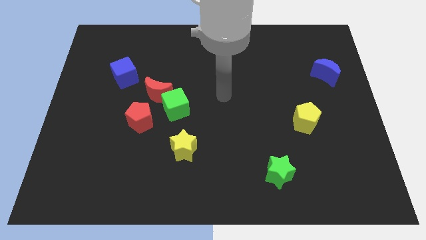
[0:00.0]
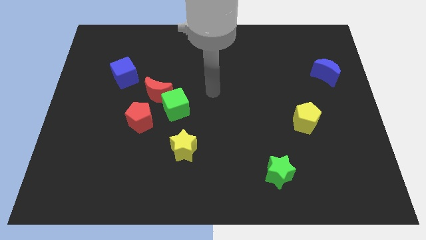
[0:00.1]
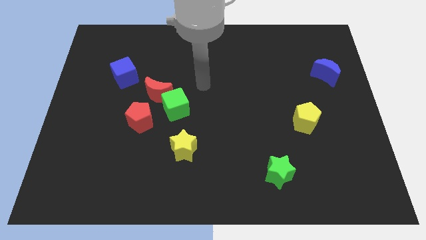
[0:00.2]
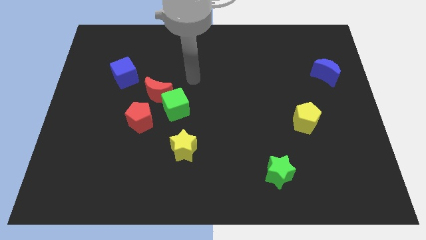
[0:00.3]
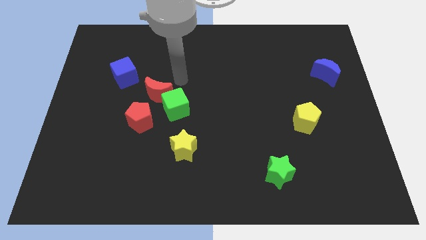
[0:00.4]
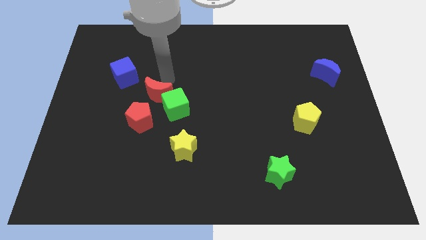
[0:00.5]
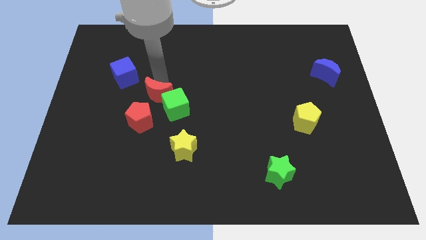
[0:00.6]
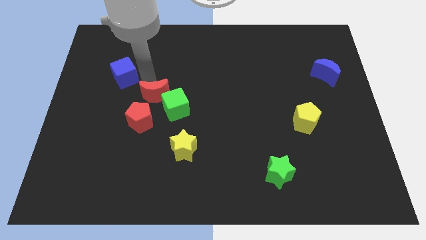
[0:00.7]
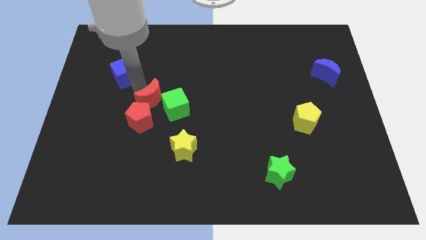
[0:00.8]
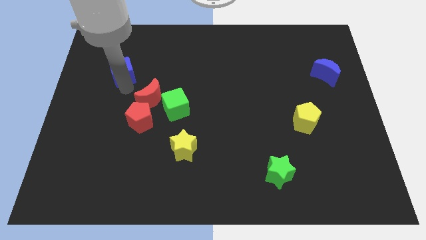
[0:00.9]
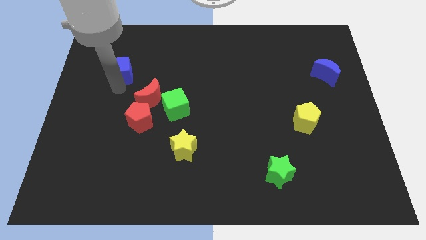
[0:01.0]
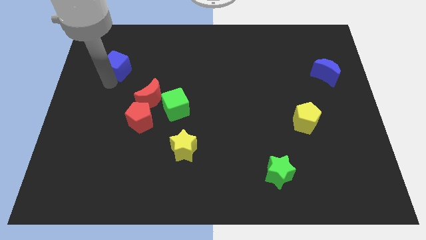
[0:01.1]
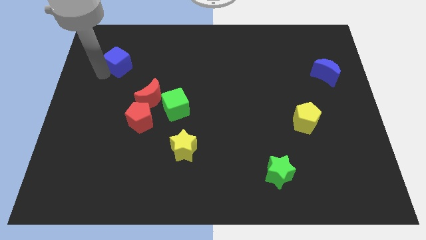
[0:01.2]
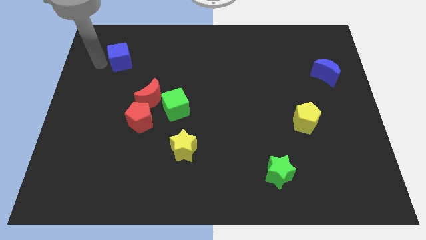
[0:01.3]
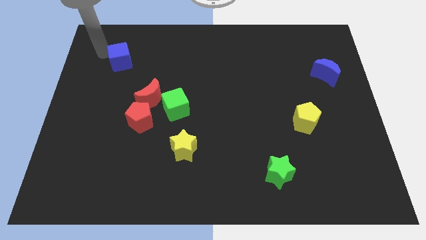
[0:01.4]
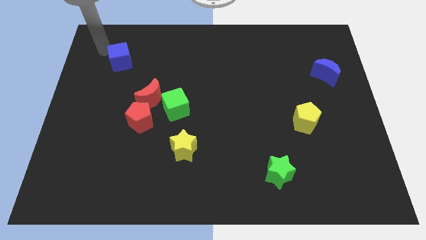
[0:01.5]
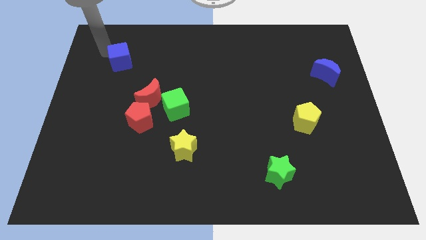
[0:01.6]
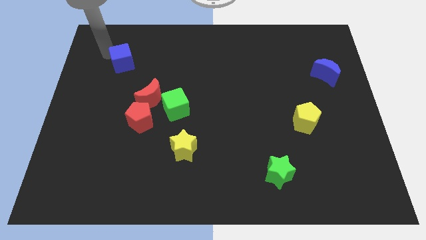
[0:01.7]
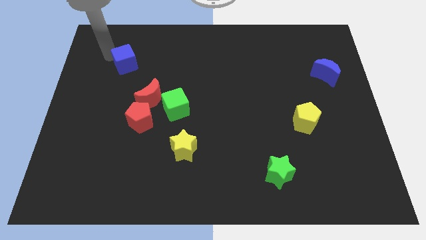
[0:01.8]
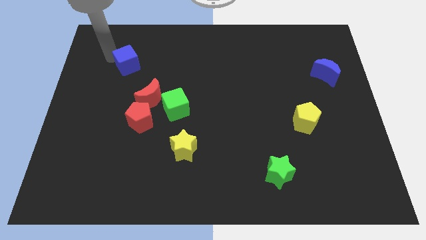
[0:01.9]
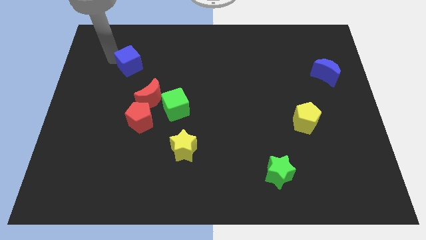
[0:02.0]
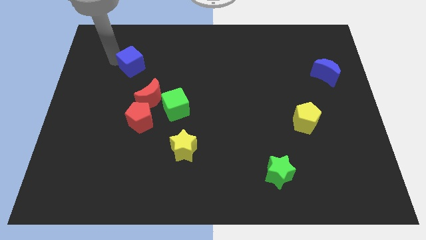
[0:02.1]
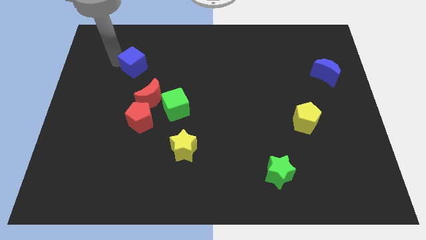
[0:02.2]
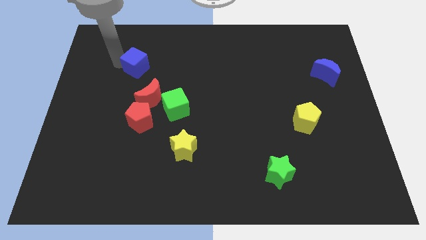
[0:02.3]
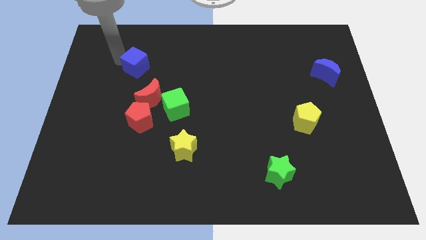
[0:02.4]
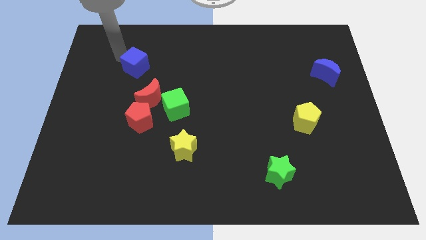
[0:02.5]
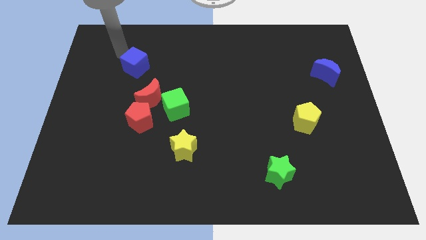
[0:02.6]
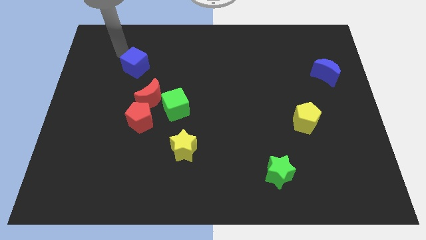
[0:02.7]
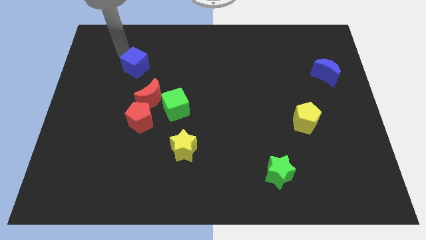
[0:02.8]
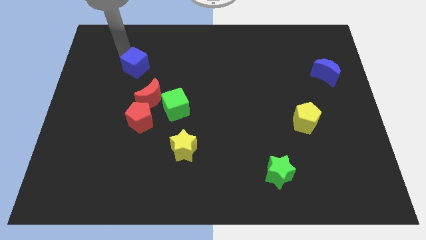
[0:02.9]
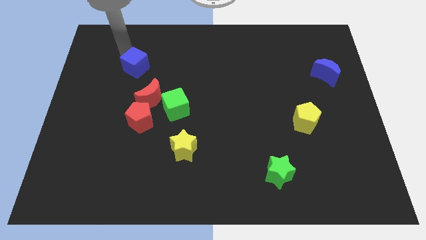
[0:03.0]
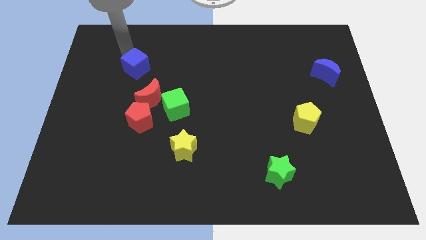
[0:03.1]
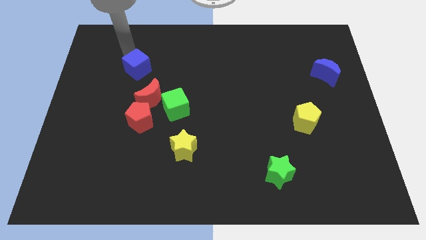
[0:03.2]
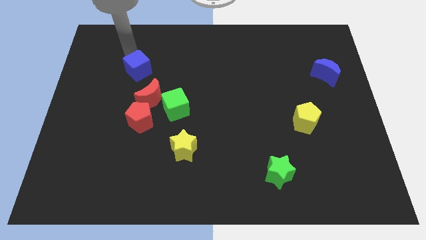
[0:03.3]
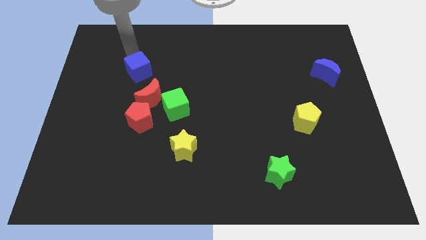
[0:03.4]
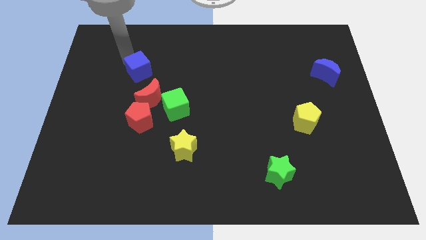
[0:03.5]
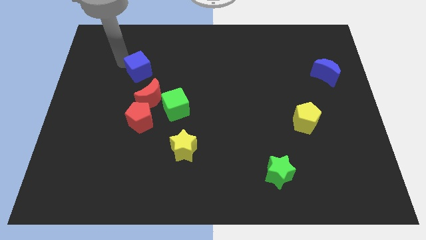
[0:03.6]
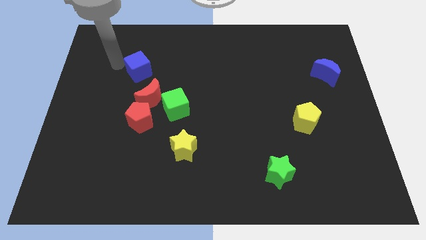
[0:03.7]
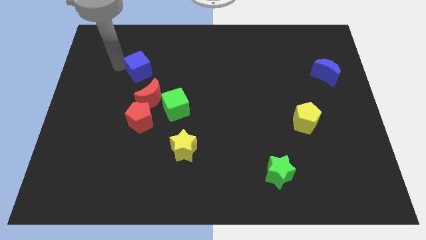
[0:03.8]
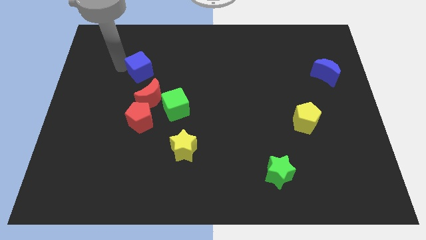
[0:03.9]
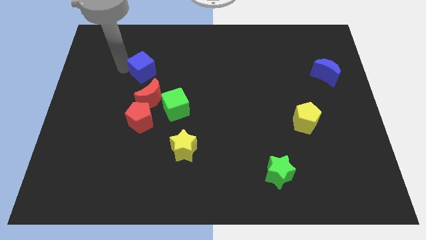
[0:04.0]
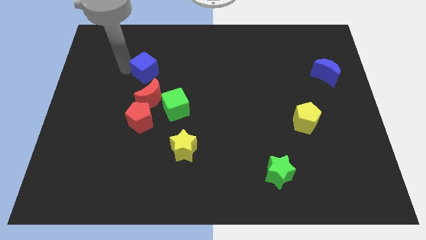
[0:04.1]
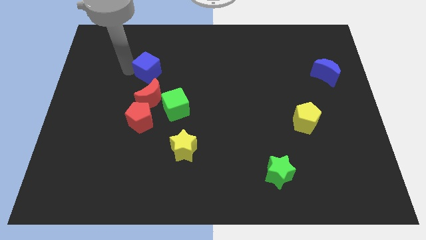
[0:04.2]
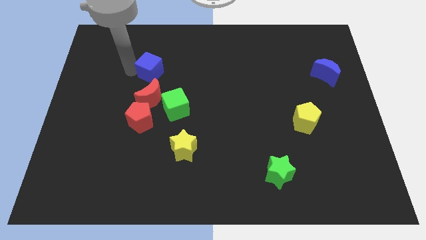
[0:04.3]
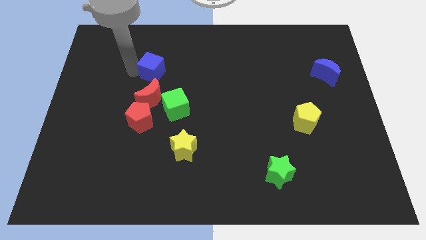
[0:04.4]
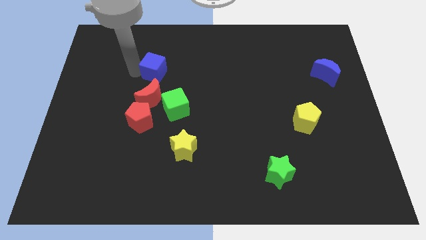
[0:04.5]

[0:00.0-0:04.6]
move the blue cube a little bit right

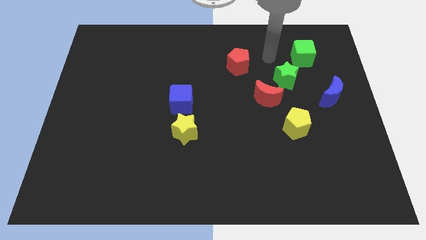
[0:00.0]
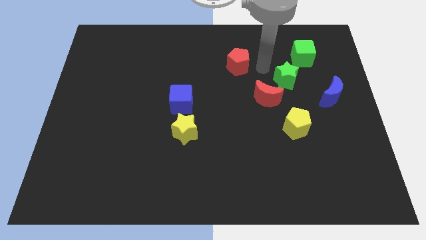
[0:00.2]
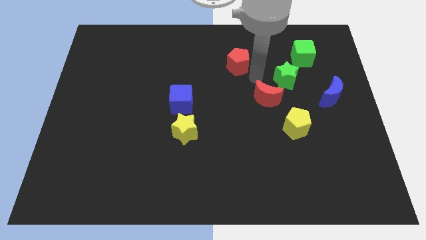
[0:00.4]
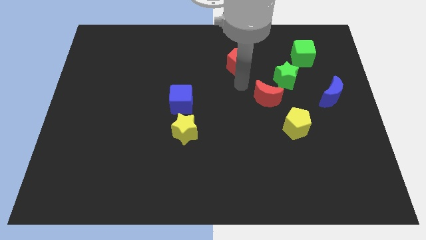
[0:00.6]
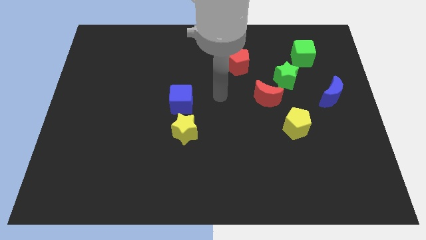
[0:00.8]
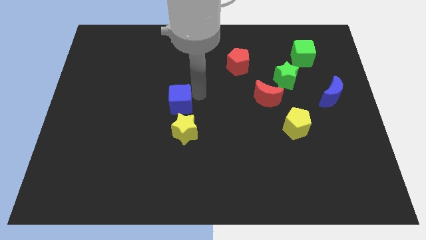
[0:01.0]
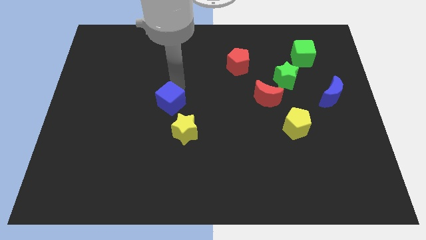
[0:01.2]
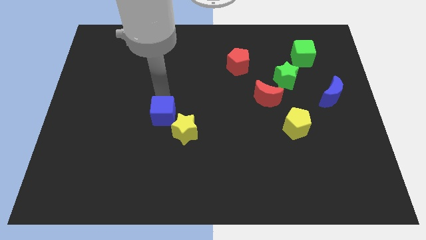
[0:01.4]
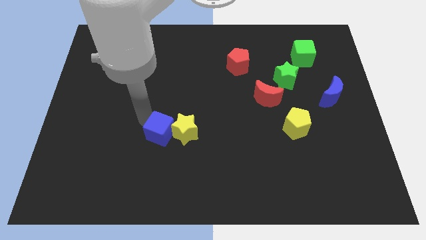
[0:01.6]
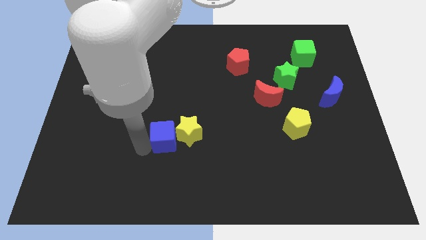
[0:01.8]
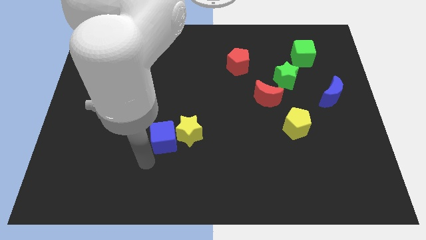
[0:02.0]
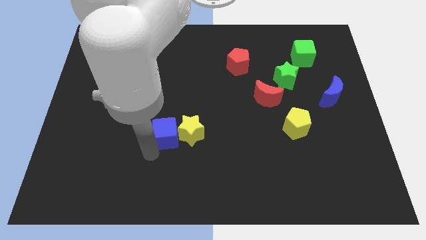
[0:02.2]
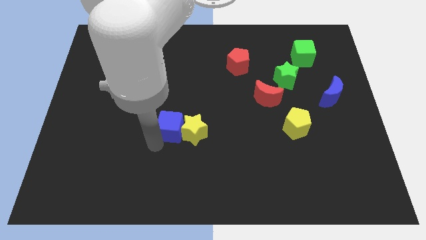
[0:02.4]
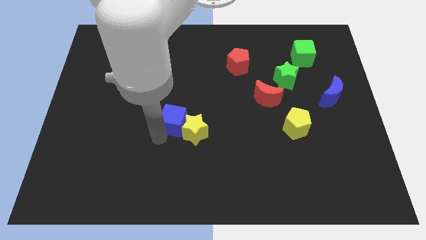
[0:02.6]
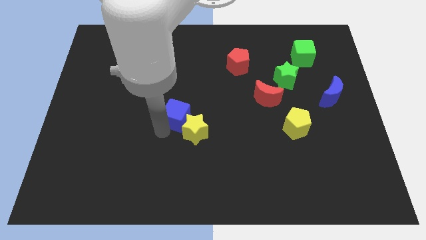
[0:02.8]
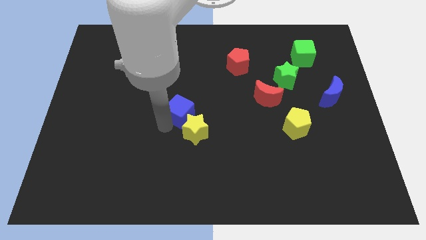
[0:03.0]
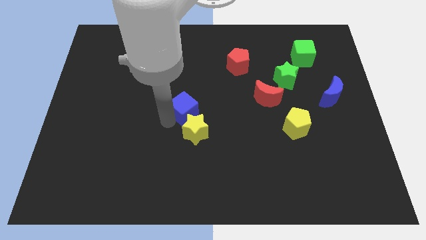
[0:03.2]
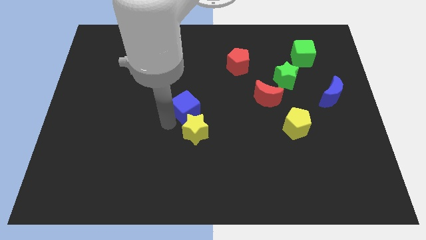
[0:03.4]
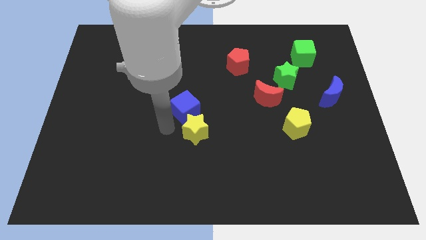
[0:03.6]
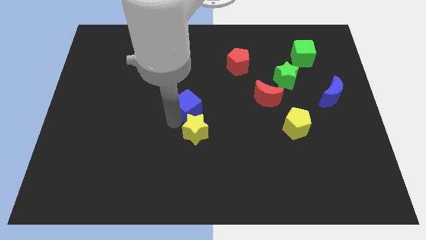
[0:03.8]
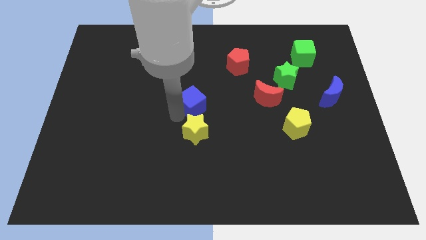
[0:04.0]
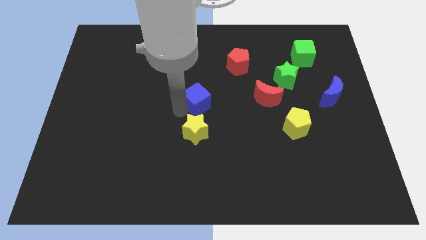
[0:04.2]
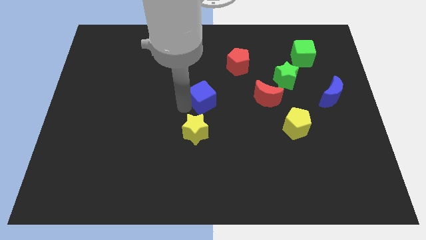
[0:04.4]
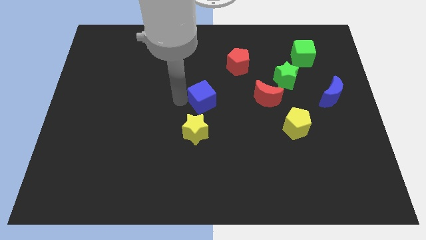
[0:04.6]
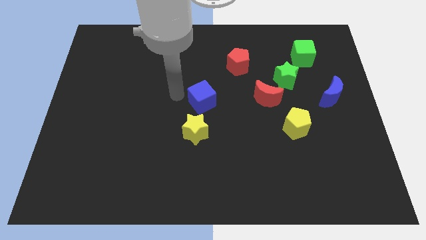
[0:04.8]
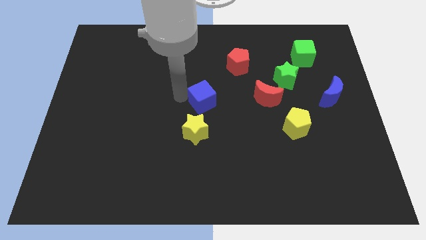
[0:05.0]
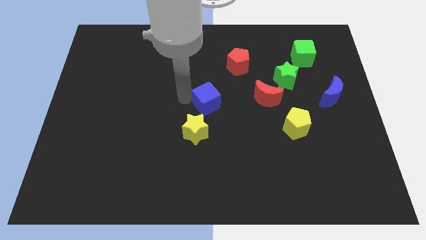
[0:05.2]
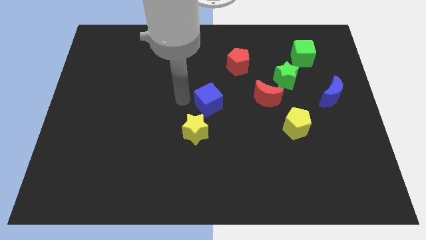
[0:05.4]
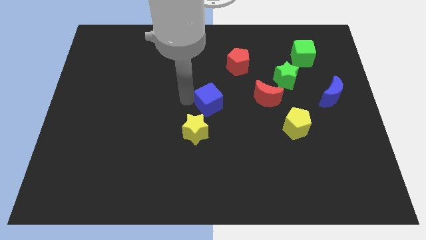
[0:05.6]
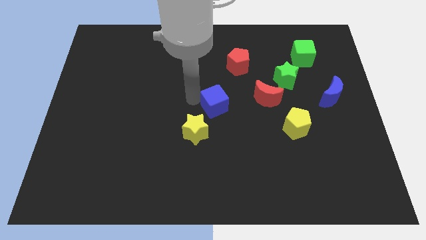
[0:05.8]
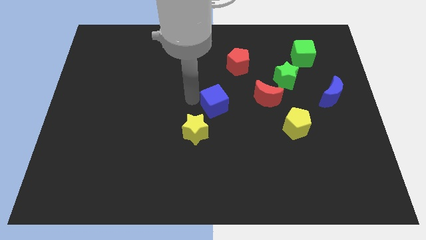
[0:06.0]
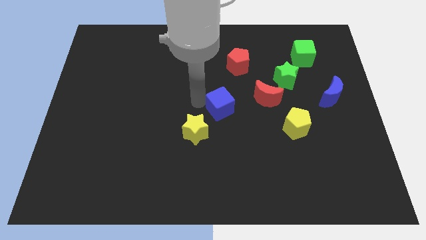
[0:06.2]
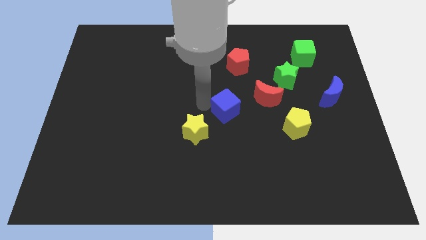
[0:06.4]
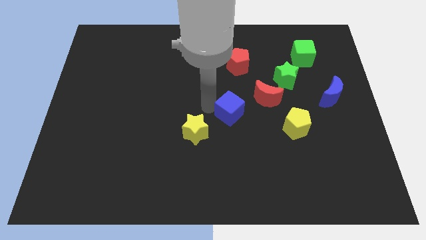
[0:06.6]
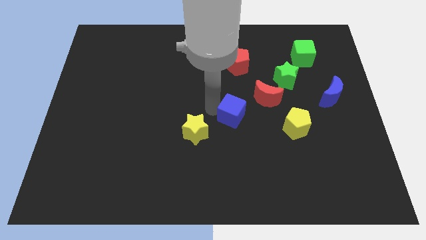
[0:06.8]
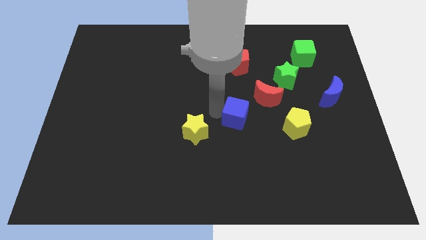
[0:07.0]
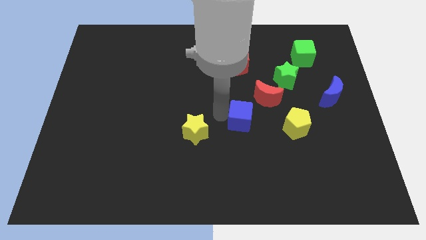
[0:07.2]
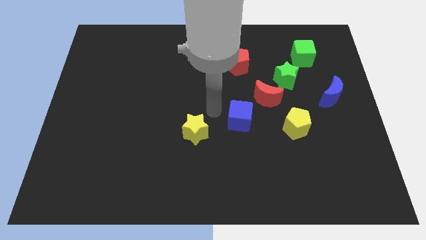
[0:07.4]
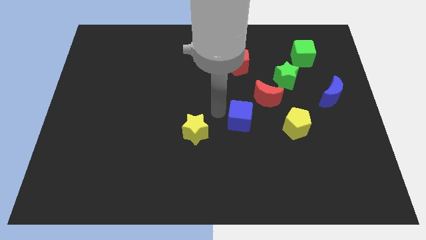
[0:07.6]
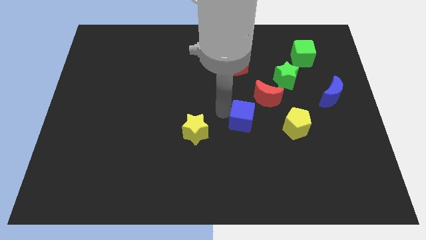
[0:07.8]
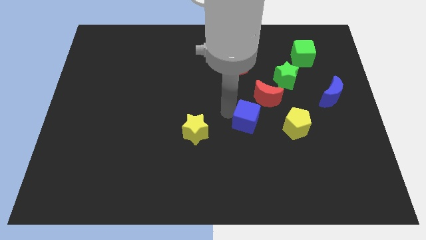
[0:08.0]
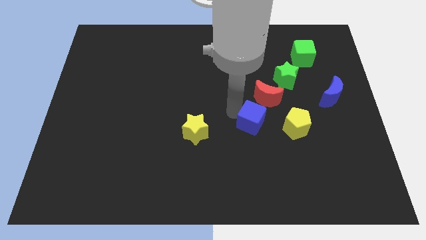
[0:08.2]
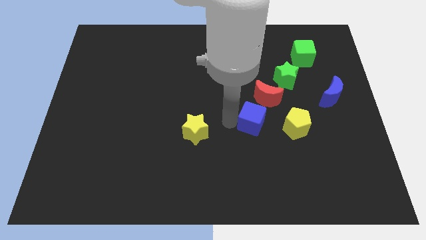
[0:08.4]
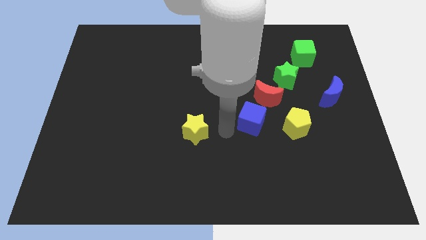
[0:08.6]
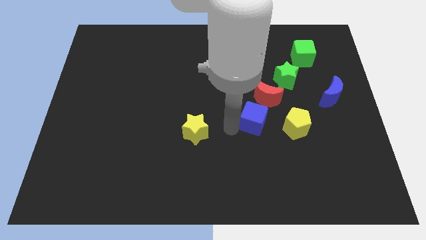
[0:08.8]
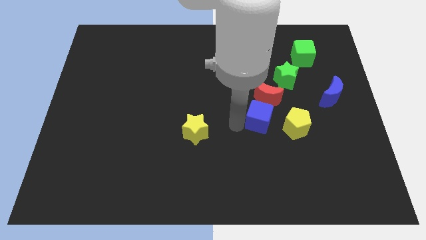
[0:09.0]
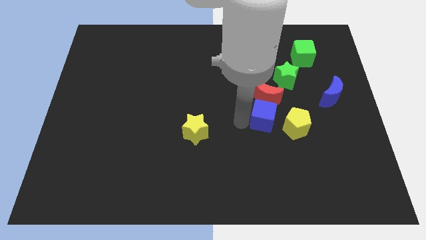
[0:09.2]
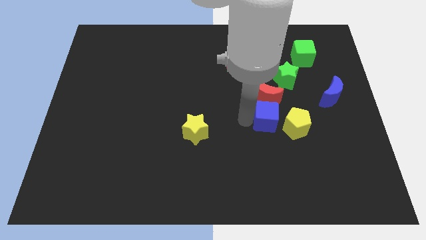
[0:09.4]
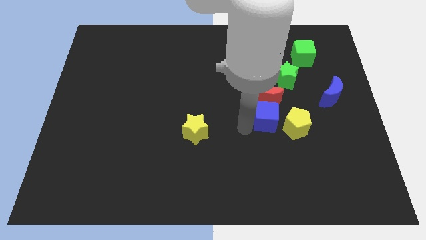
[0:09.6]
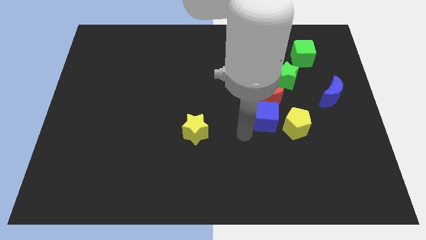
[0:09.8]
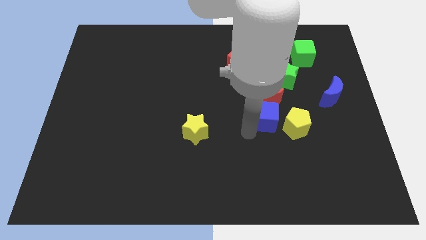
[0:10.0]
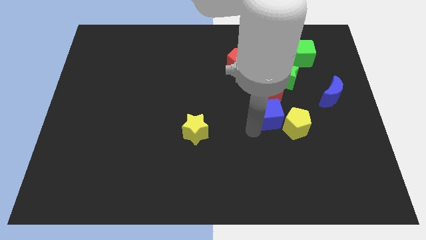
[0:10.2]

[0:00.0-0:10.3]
move the blue cube to the right
